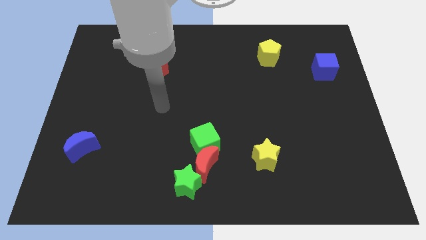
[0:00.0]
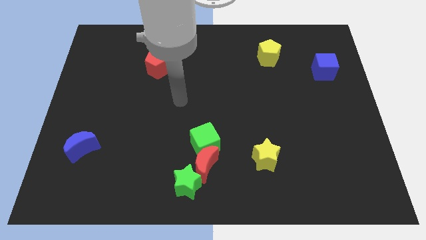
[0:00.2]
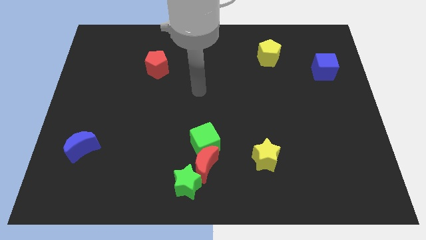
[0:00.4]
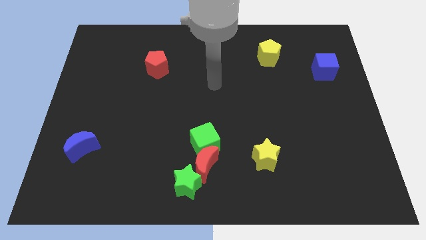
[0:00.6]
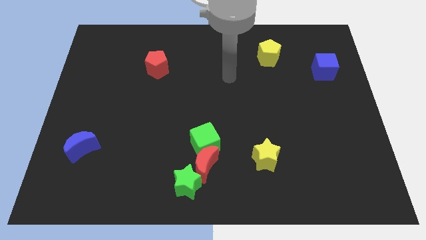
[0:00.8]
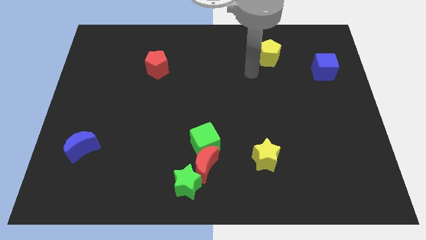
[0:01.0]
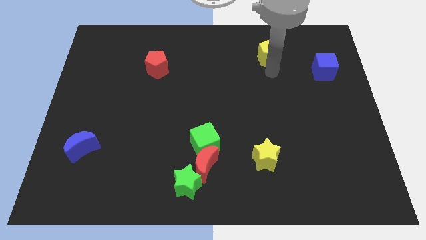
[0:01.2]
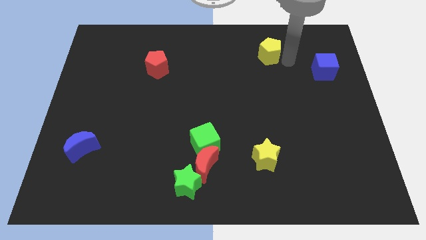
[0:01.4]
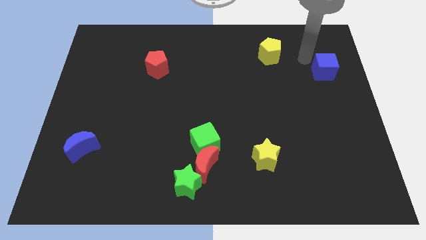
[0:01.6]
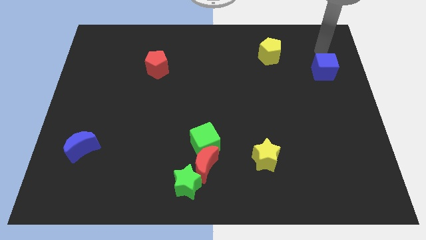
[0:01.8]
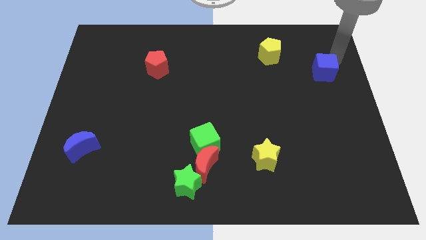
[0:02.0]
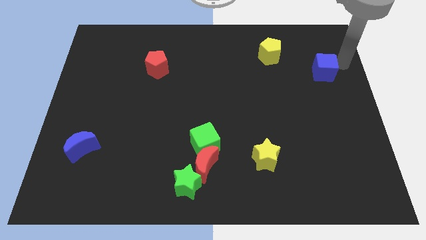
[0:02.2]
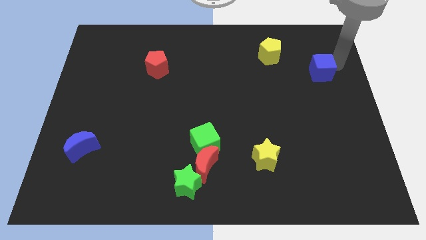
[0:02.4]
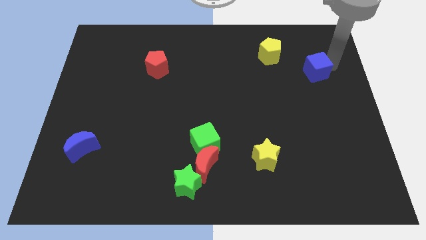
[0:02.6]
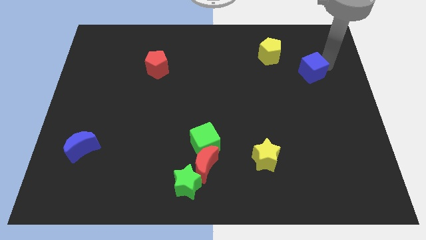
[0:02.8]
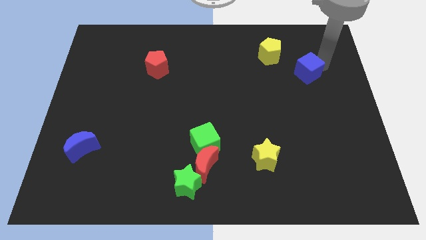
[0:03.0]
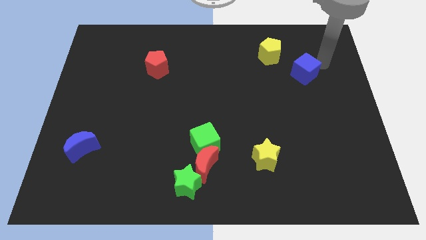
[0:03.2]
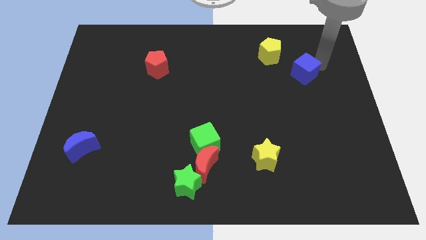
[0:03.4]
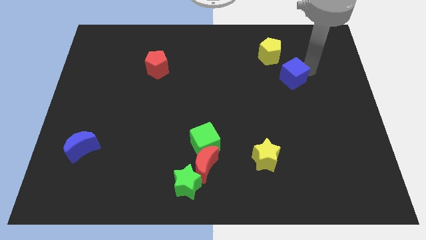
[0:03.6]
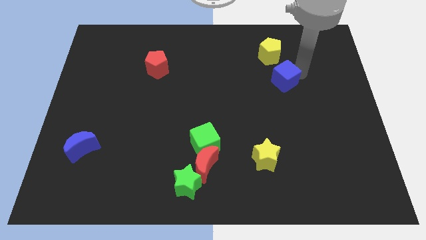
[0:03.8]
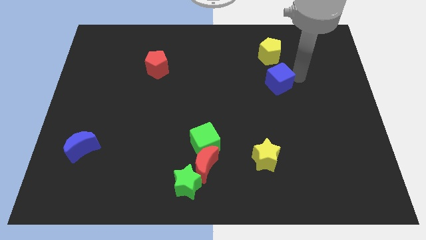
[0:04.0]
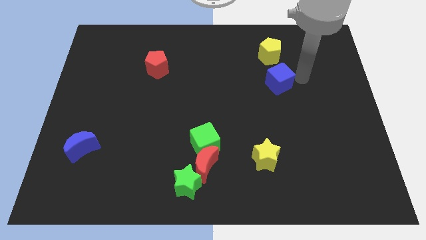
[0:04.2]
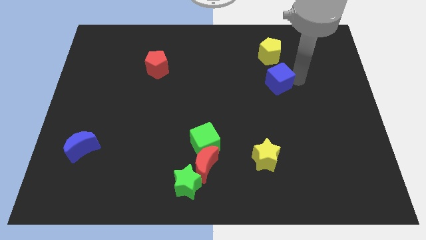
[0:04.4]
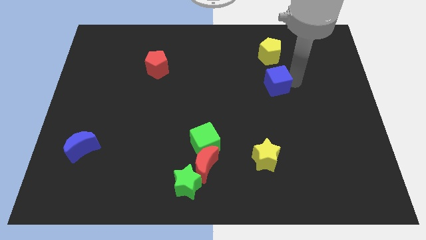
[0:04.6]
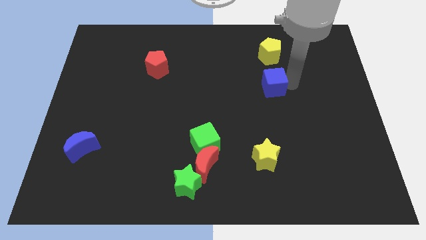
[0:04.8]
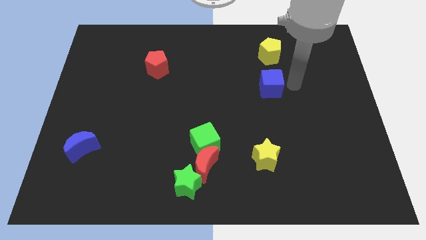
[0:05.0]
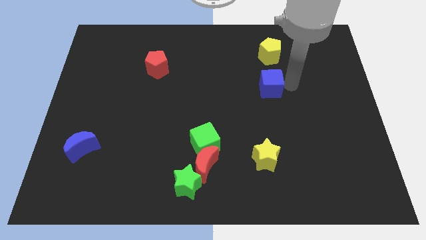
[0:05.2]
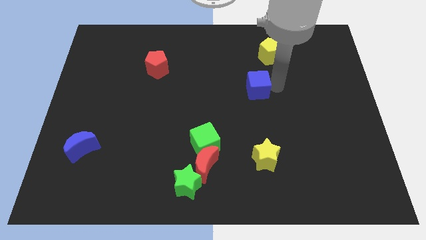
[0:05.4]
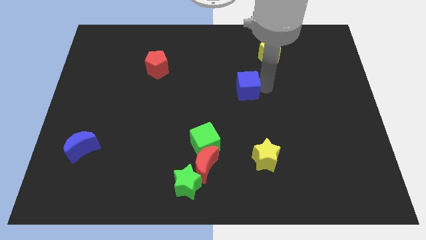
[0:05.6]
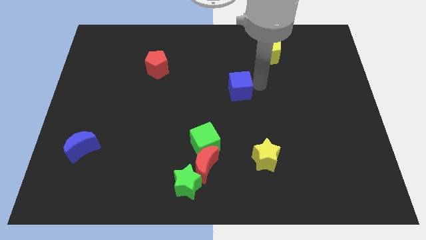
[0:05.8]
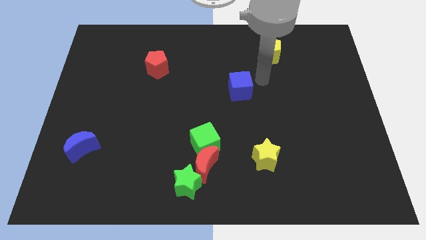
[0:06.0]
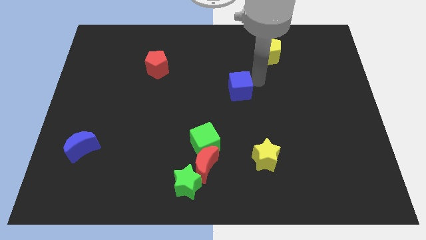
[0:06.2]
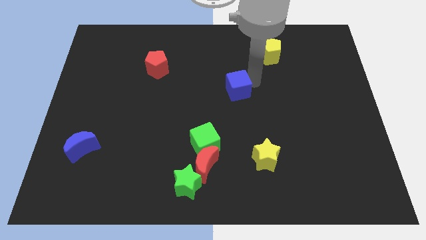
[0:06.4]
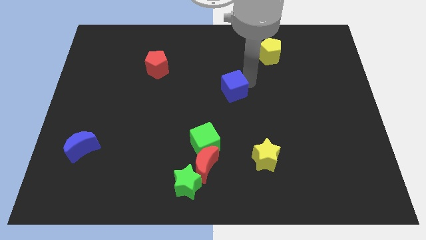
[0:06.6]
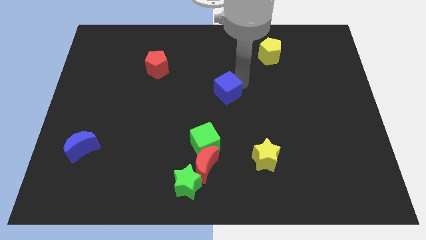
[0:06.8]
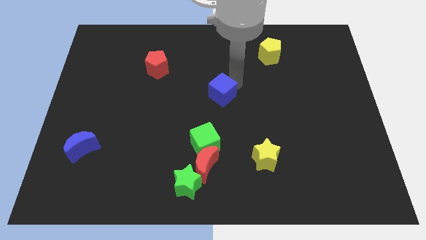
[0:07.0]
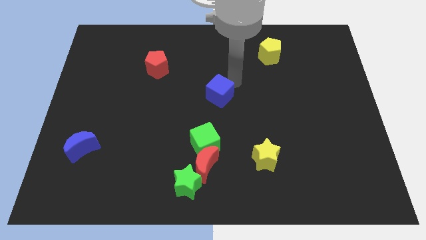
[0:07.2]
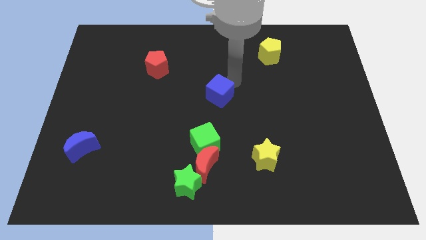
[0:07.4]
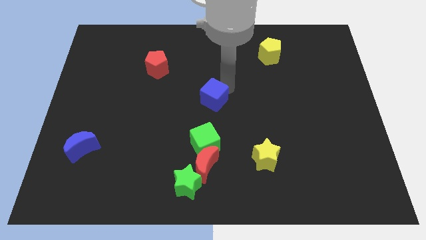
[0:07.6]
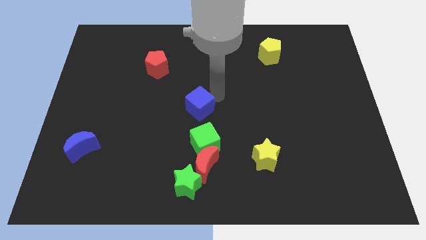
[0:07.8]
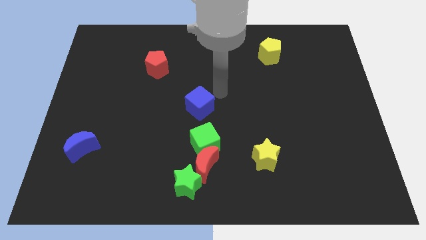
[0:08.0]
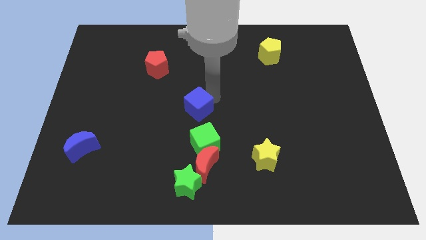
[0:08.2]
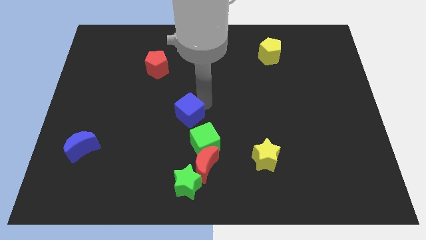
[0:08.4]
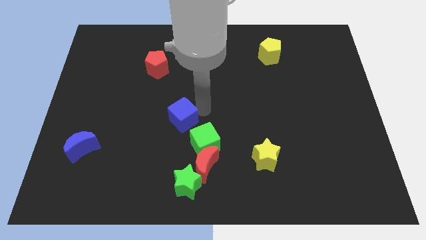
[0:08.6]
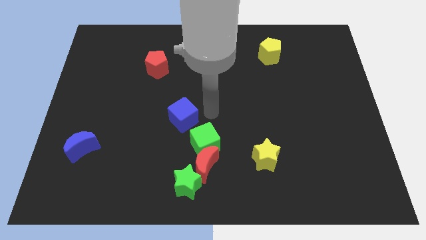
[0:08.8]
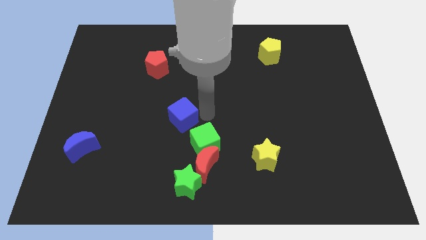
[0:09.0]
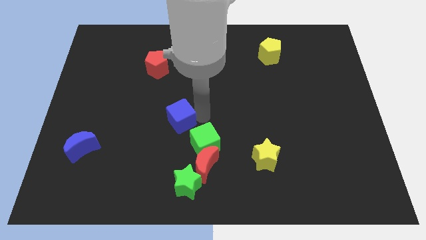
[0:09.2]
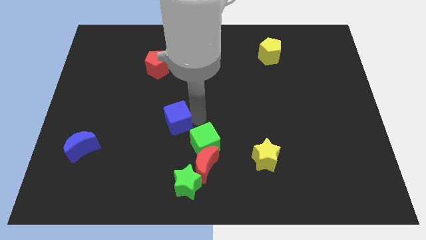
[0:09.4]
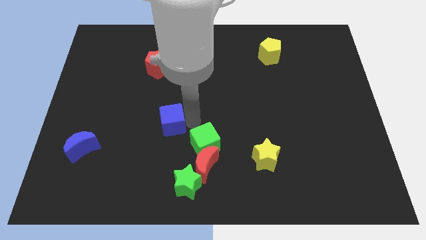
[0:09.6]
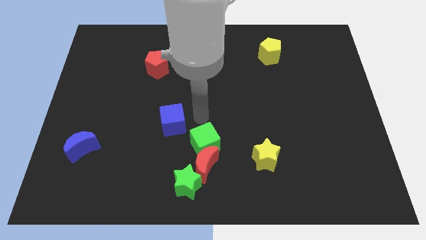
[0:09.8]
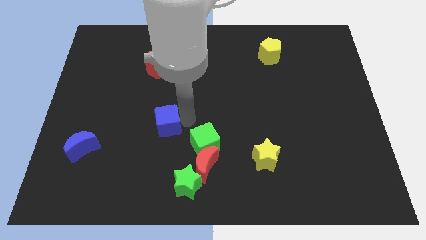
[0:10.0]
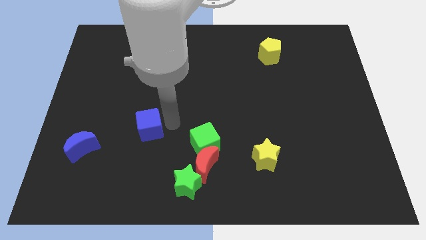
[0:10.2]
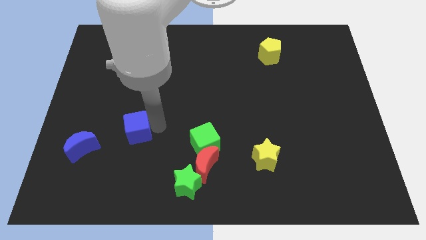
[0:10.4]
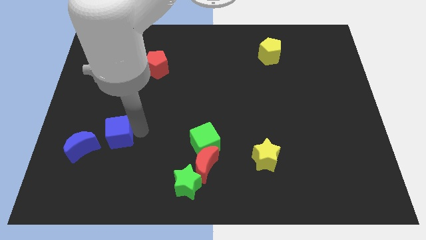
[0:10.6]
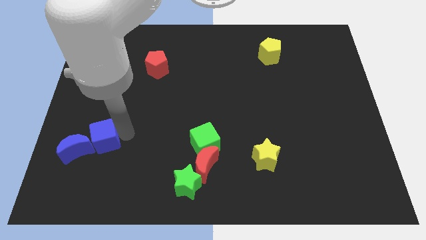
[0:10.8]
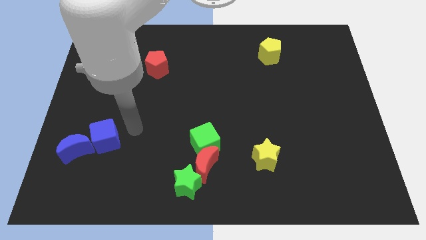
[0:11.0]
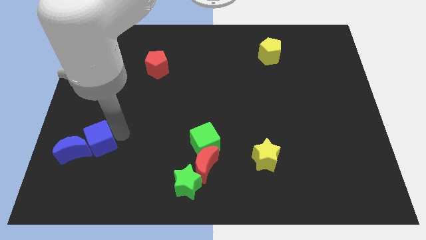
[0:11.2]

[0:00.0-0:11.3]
move the blue cube towards the blue moon

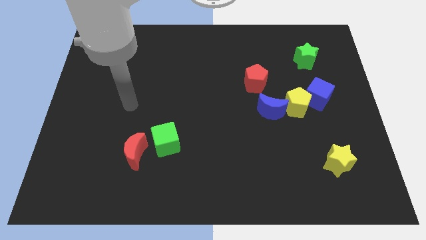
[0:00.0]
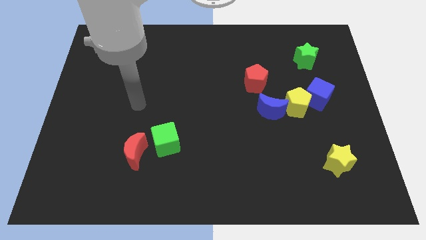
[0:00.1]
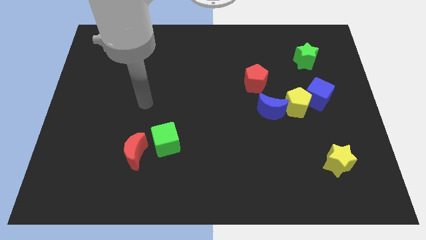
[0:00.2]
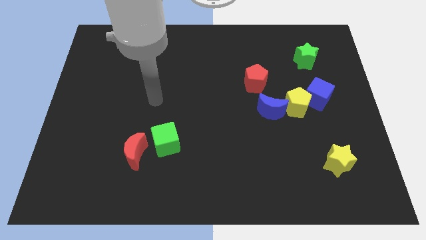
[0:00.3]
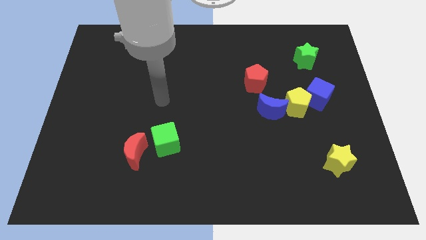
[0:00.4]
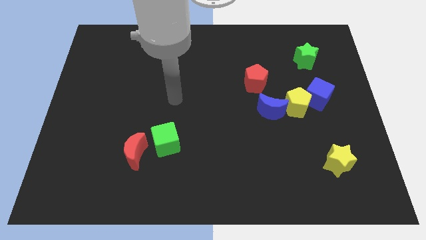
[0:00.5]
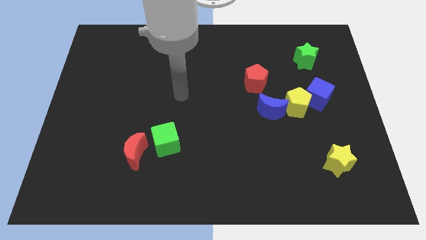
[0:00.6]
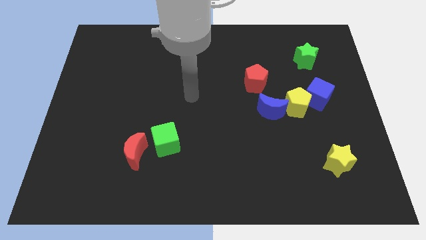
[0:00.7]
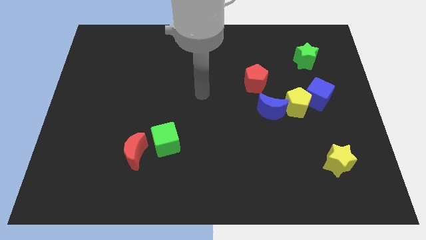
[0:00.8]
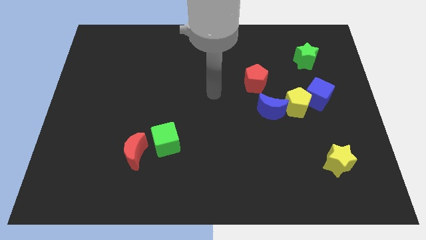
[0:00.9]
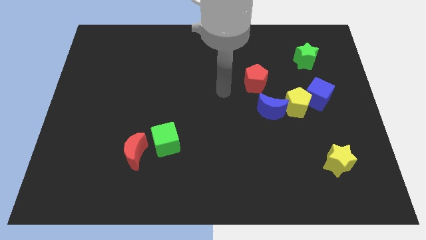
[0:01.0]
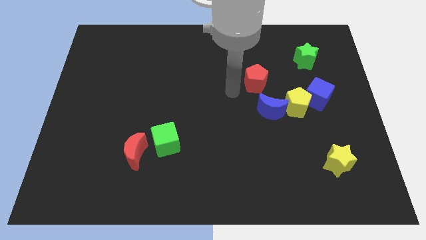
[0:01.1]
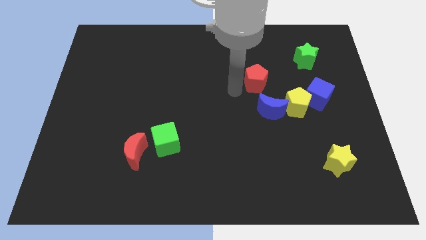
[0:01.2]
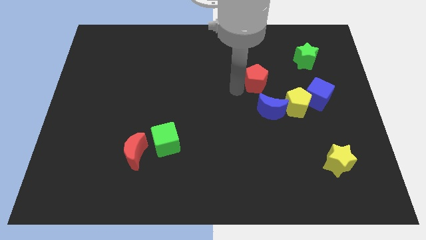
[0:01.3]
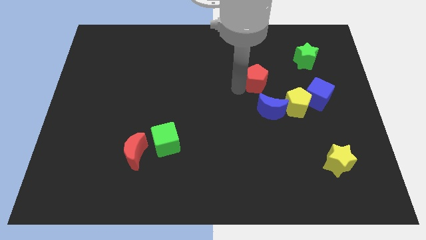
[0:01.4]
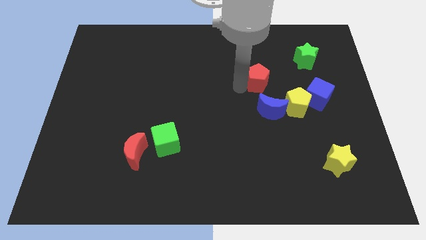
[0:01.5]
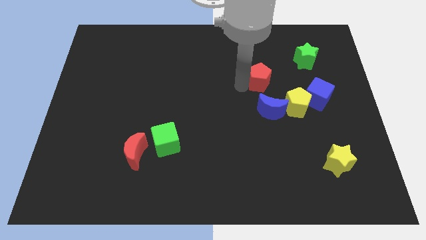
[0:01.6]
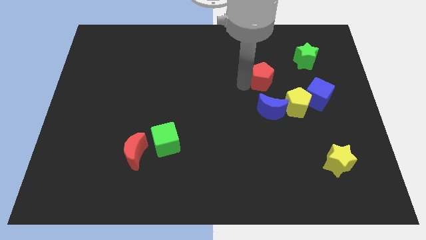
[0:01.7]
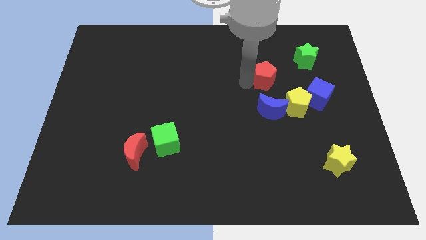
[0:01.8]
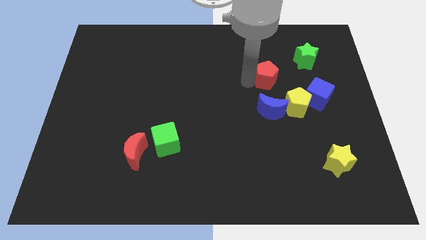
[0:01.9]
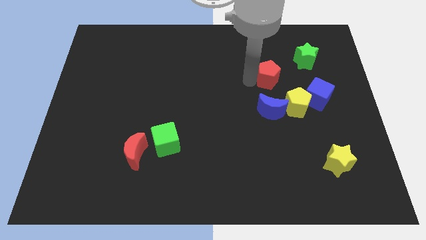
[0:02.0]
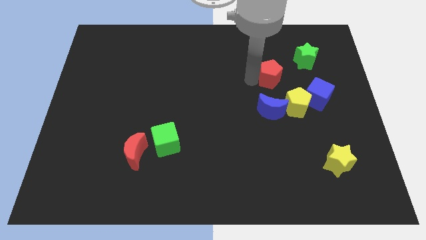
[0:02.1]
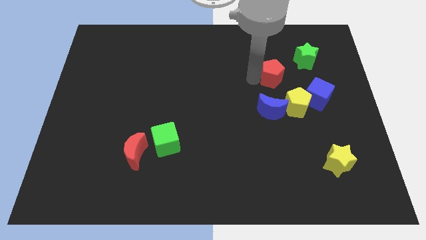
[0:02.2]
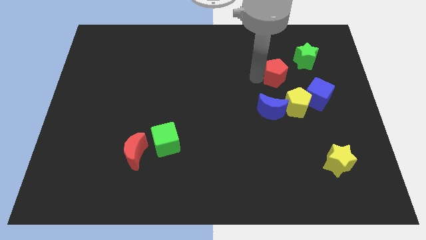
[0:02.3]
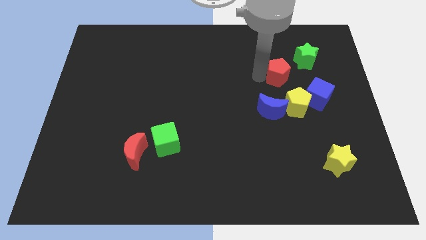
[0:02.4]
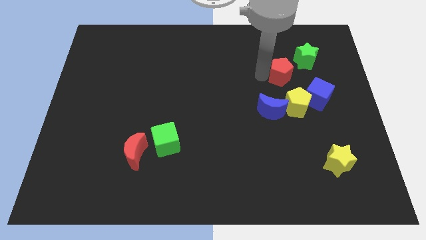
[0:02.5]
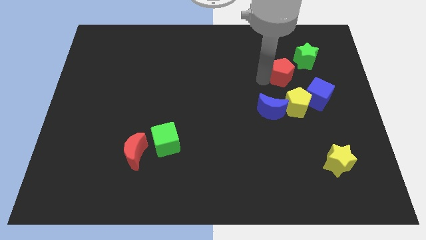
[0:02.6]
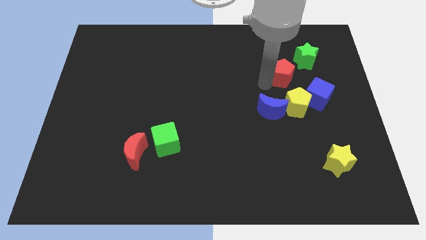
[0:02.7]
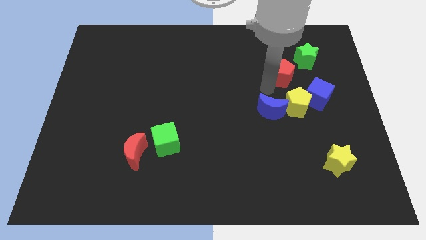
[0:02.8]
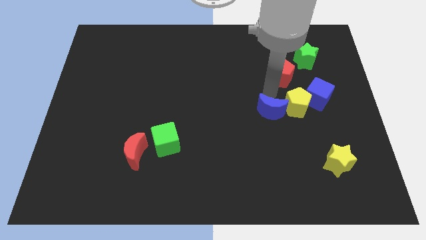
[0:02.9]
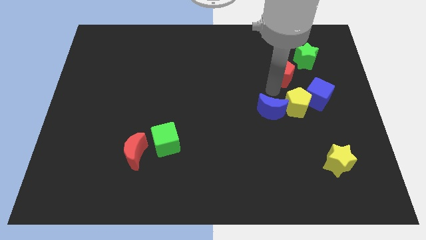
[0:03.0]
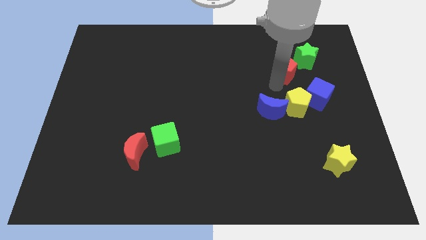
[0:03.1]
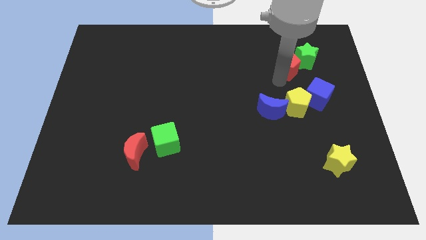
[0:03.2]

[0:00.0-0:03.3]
move the red pentagon close to the green star
